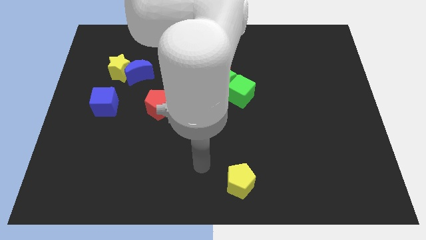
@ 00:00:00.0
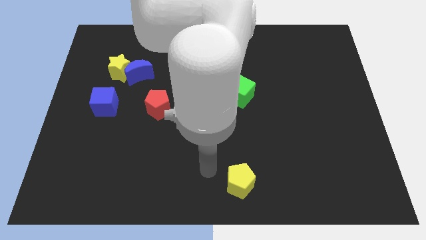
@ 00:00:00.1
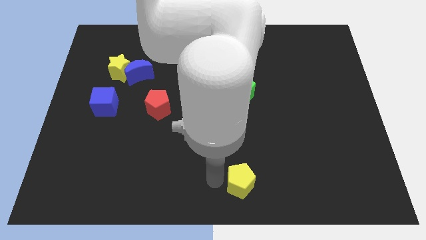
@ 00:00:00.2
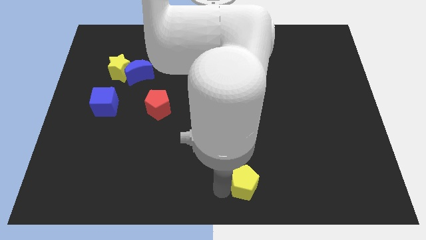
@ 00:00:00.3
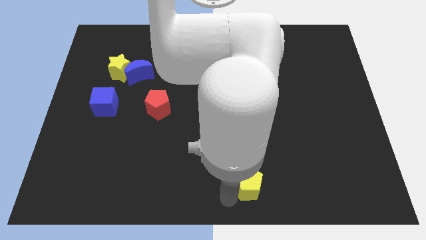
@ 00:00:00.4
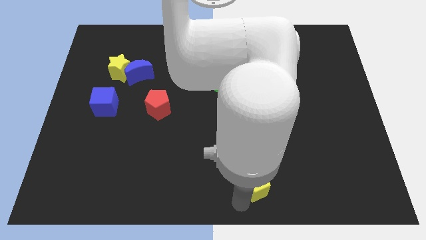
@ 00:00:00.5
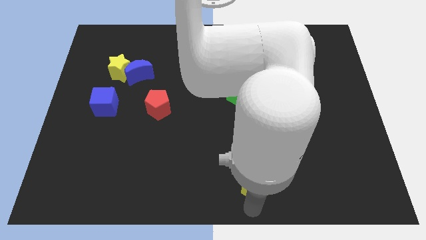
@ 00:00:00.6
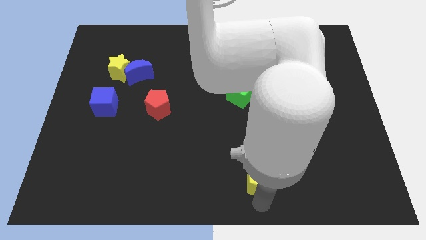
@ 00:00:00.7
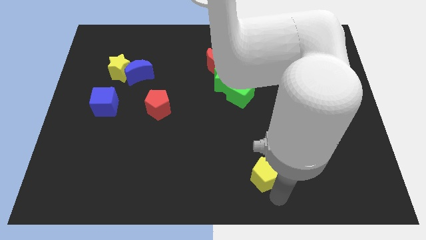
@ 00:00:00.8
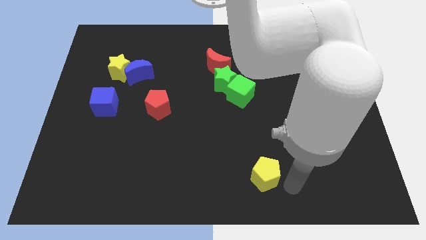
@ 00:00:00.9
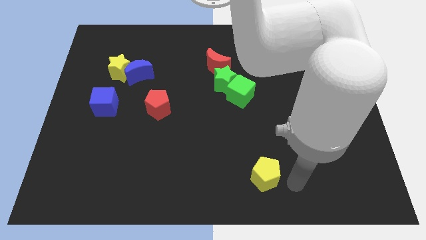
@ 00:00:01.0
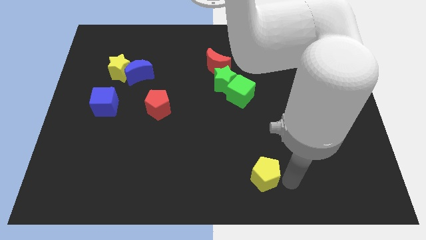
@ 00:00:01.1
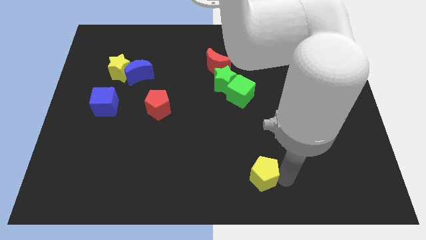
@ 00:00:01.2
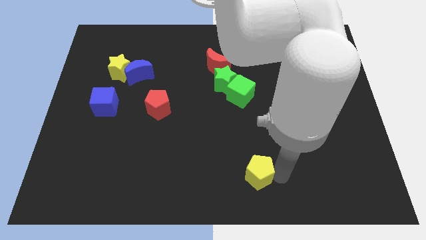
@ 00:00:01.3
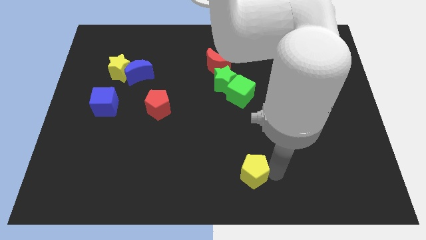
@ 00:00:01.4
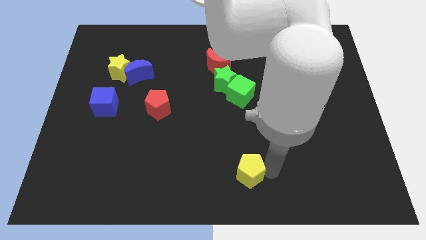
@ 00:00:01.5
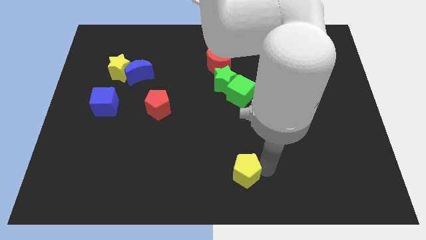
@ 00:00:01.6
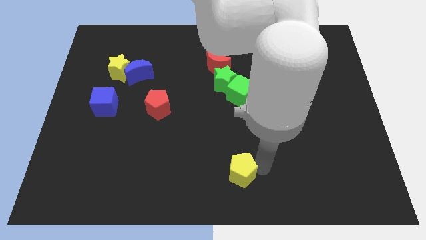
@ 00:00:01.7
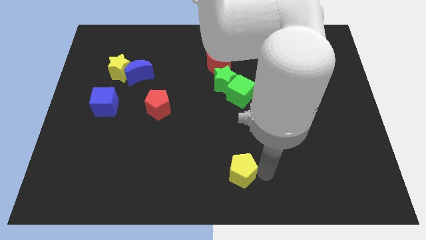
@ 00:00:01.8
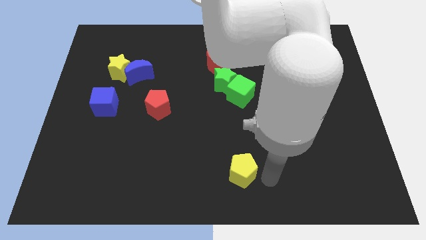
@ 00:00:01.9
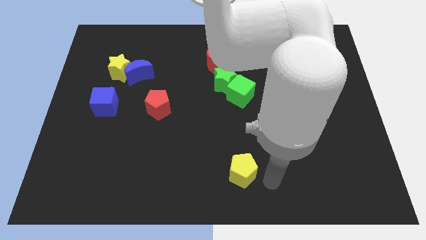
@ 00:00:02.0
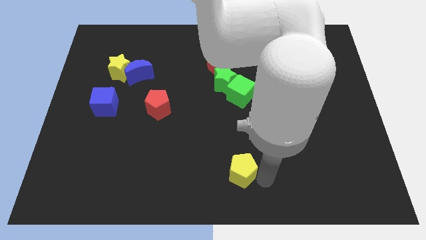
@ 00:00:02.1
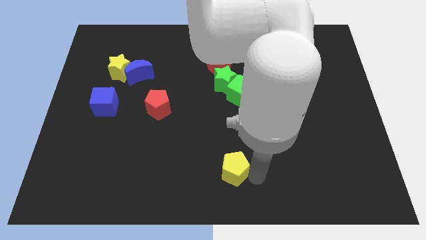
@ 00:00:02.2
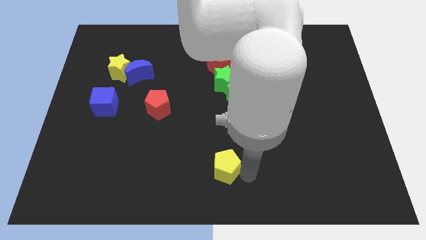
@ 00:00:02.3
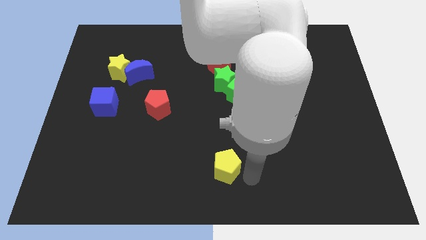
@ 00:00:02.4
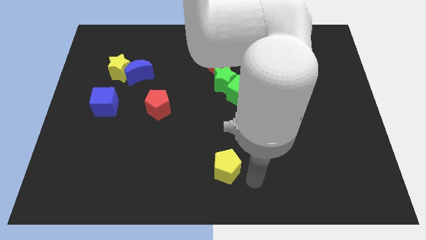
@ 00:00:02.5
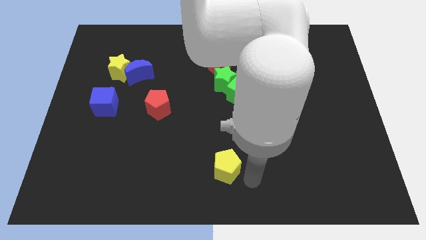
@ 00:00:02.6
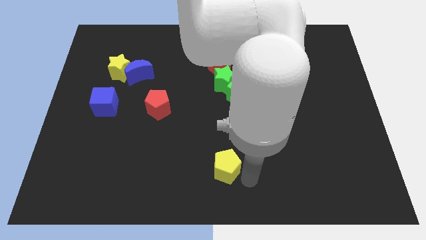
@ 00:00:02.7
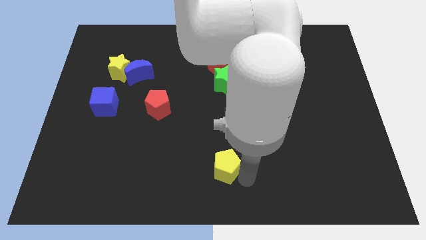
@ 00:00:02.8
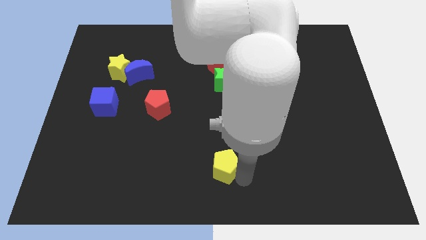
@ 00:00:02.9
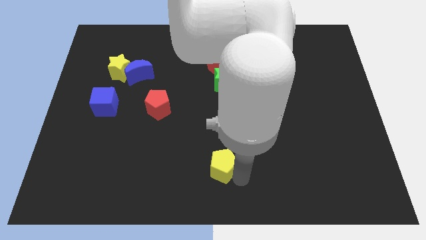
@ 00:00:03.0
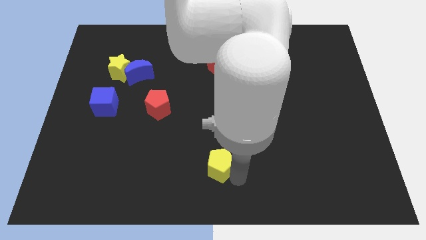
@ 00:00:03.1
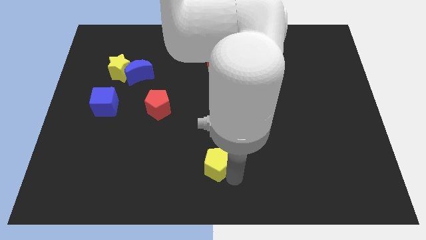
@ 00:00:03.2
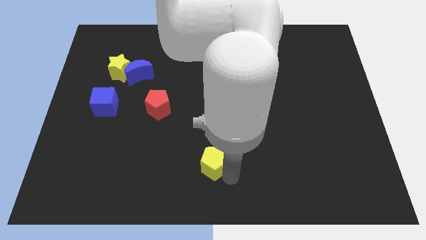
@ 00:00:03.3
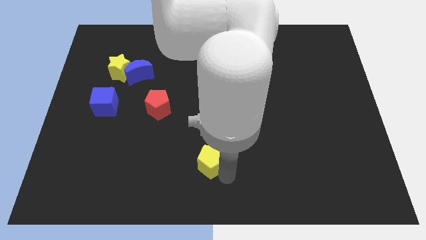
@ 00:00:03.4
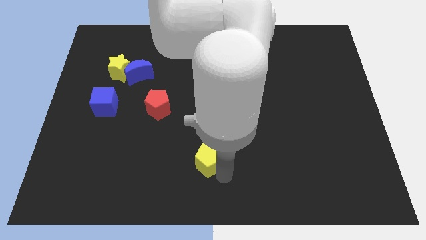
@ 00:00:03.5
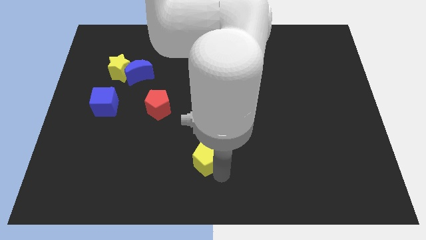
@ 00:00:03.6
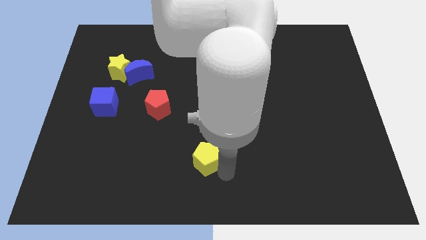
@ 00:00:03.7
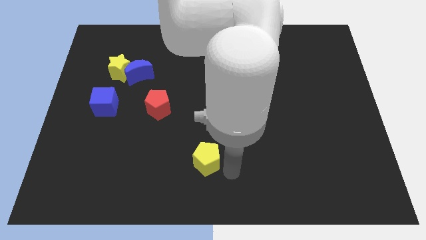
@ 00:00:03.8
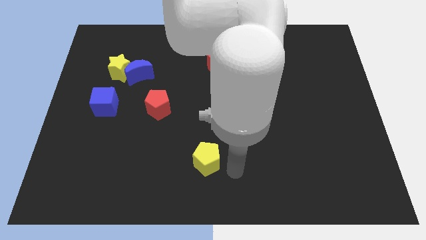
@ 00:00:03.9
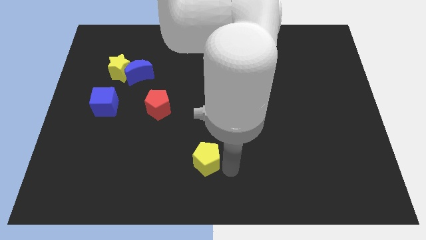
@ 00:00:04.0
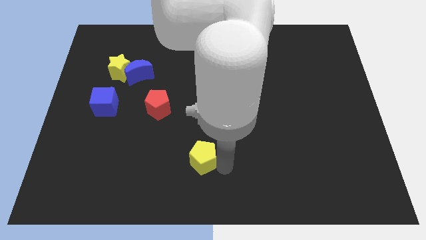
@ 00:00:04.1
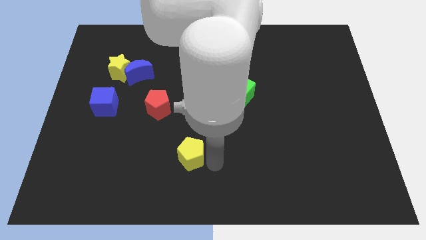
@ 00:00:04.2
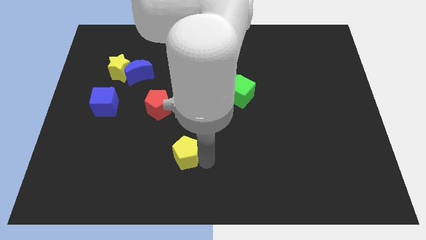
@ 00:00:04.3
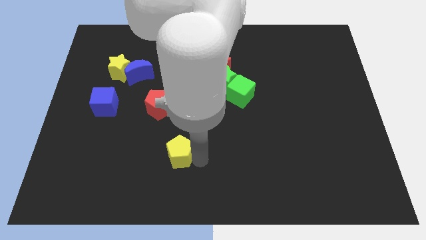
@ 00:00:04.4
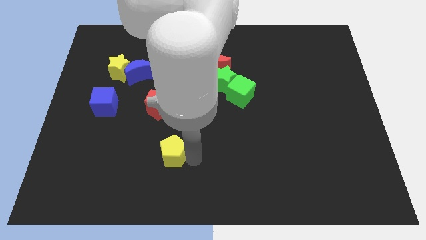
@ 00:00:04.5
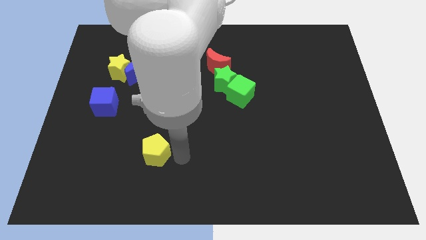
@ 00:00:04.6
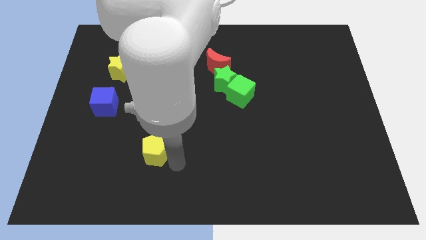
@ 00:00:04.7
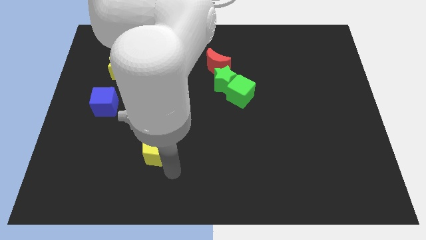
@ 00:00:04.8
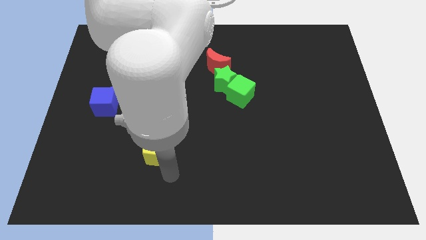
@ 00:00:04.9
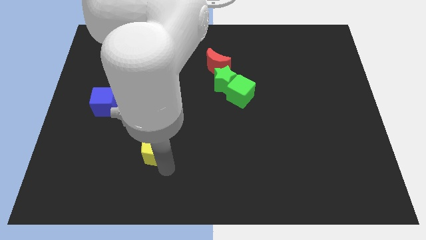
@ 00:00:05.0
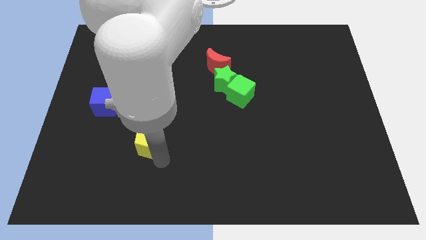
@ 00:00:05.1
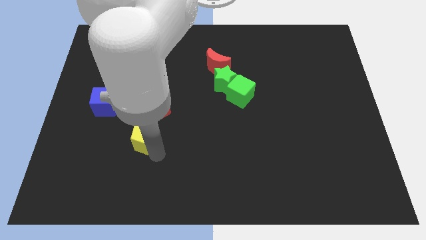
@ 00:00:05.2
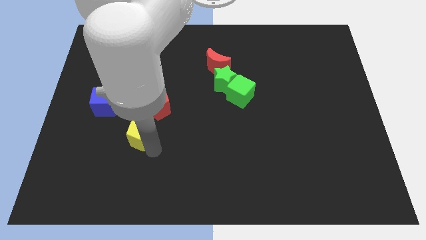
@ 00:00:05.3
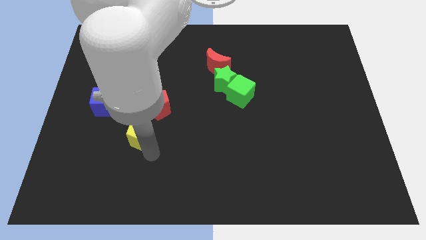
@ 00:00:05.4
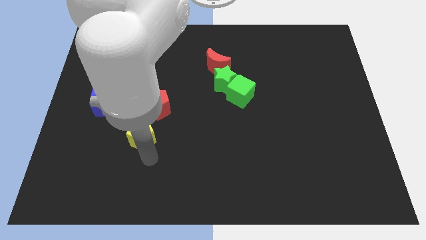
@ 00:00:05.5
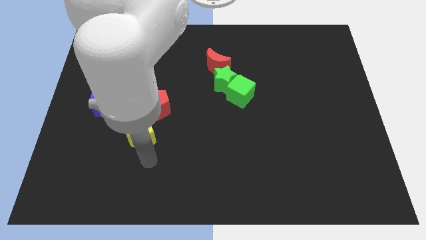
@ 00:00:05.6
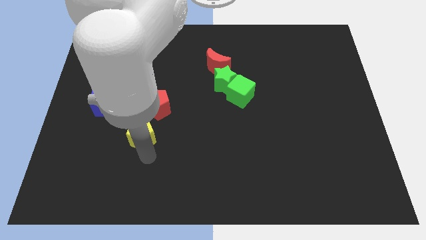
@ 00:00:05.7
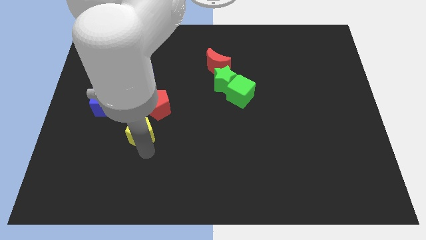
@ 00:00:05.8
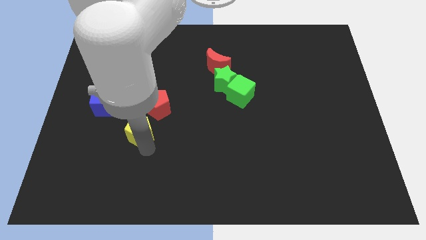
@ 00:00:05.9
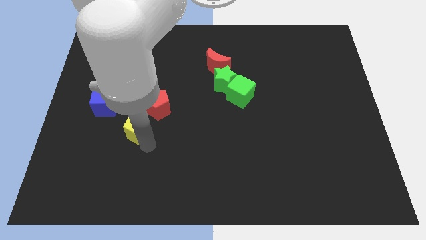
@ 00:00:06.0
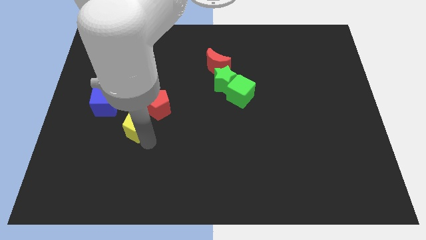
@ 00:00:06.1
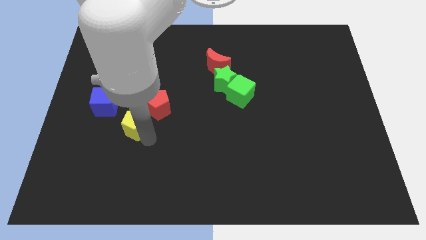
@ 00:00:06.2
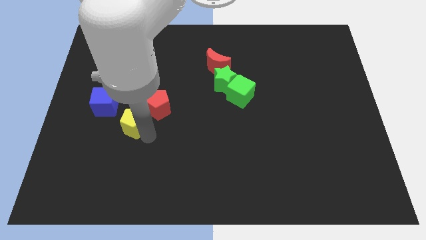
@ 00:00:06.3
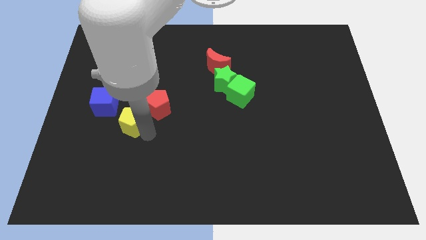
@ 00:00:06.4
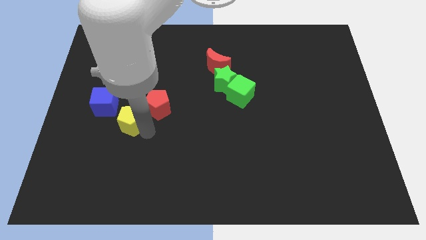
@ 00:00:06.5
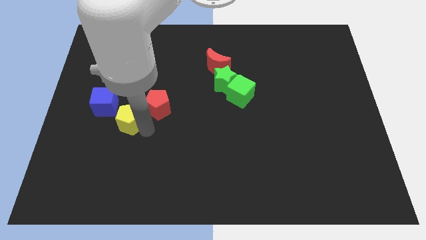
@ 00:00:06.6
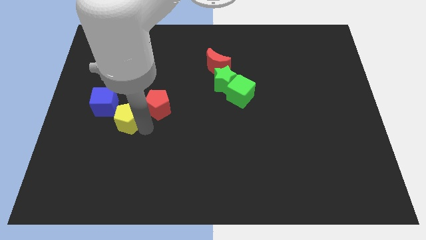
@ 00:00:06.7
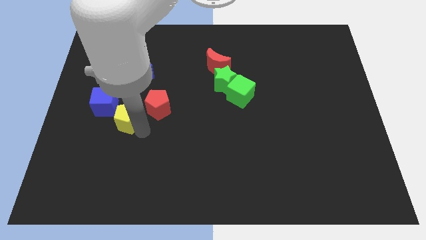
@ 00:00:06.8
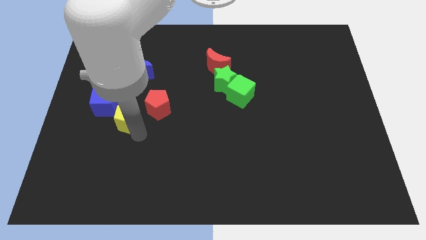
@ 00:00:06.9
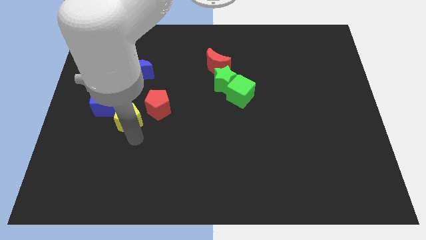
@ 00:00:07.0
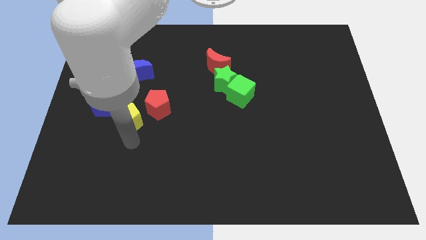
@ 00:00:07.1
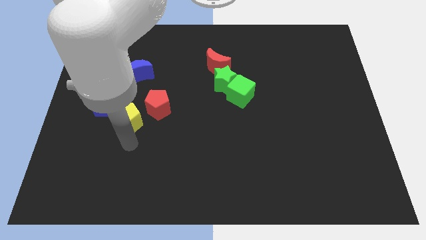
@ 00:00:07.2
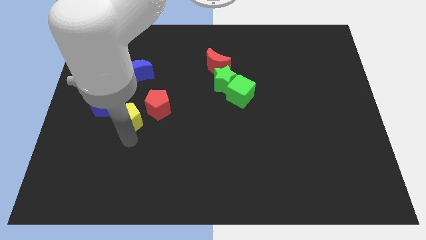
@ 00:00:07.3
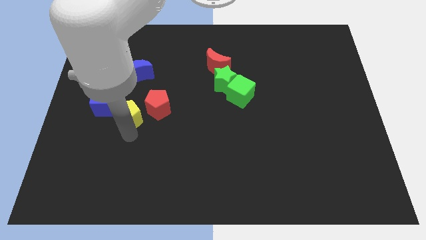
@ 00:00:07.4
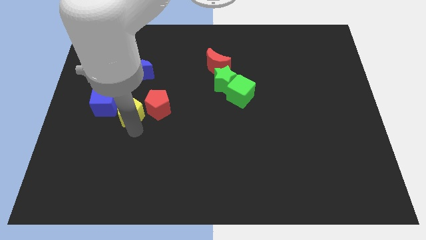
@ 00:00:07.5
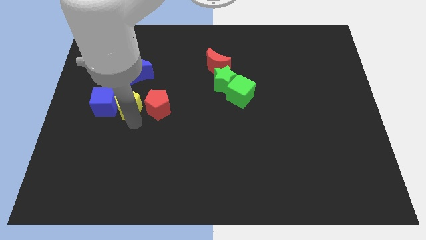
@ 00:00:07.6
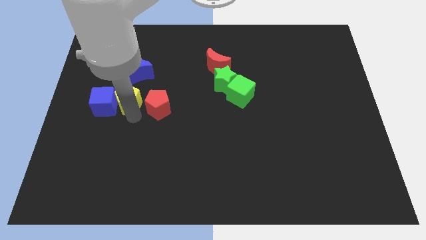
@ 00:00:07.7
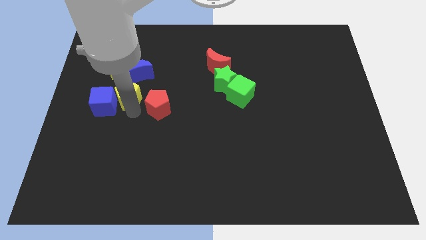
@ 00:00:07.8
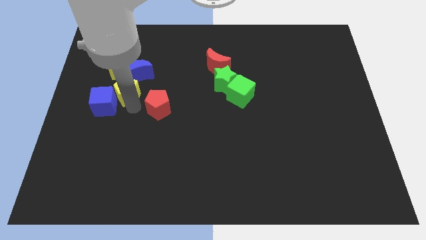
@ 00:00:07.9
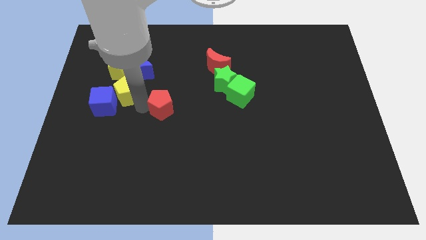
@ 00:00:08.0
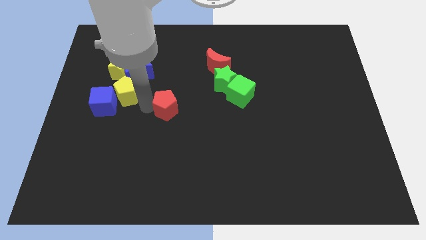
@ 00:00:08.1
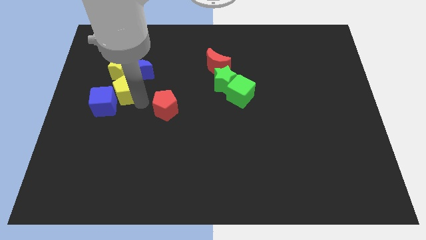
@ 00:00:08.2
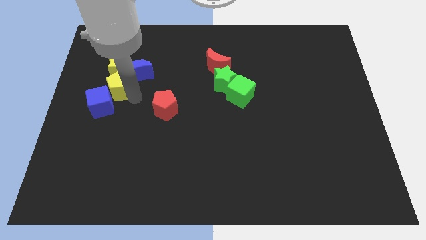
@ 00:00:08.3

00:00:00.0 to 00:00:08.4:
slide the yellow pentagon just left of the blue moon
